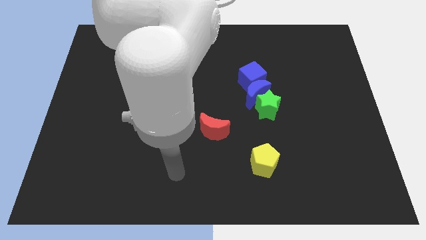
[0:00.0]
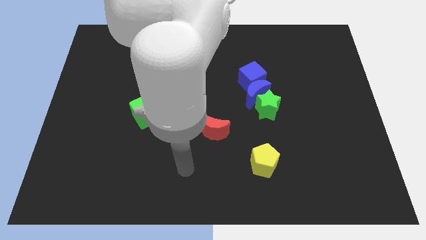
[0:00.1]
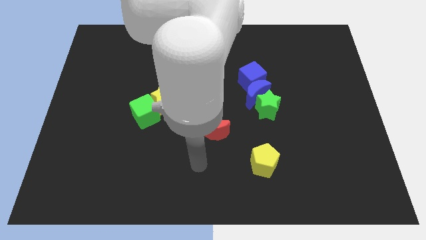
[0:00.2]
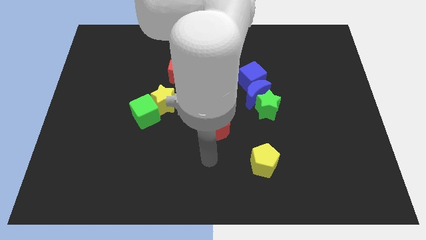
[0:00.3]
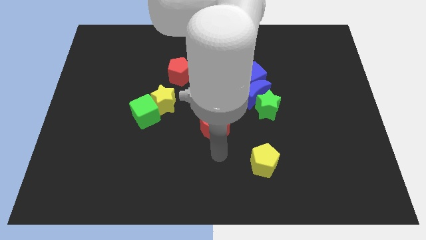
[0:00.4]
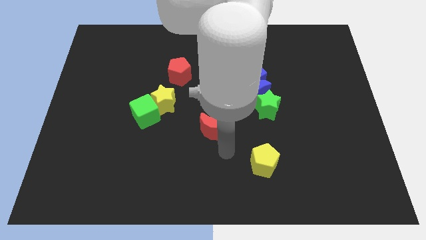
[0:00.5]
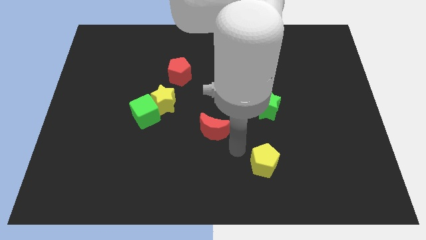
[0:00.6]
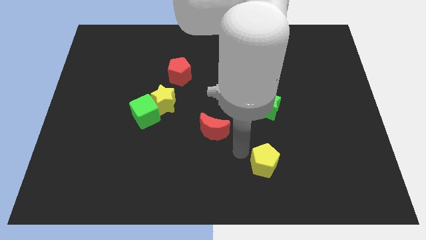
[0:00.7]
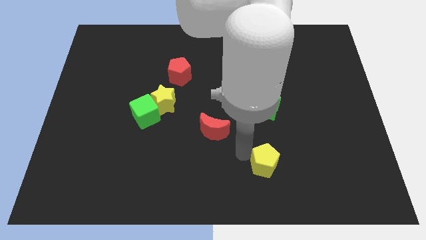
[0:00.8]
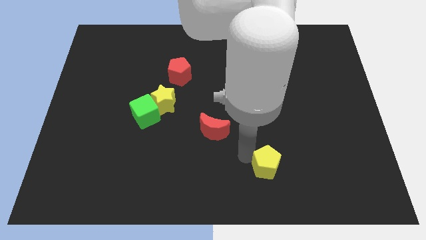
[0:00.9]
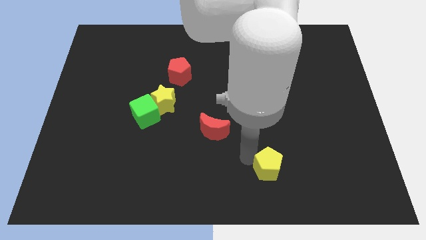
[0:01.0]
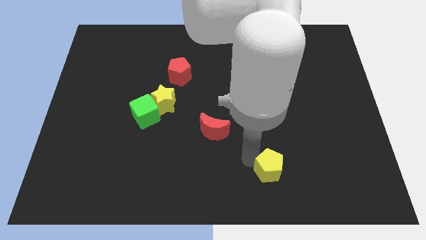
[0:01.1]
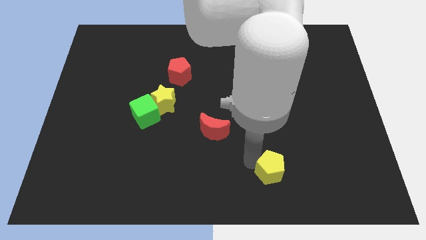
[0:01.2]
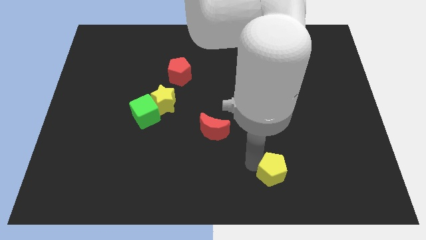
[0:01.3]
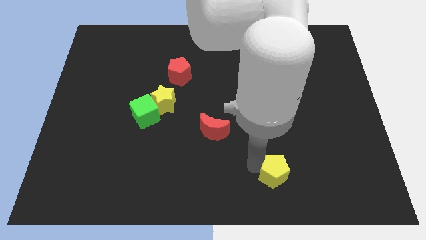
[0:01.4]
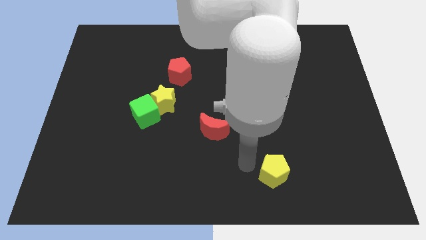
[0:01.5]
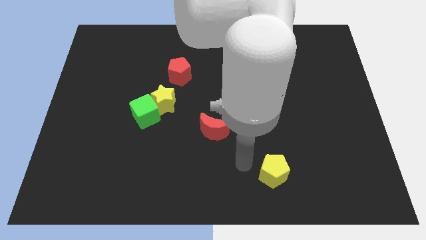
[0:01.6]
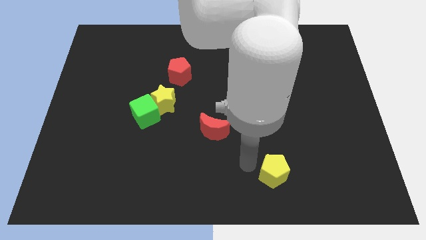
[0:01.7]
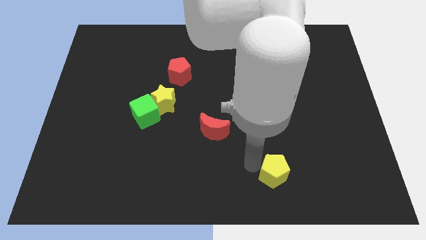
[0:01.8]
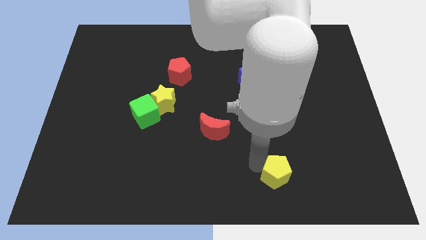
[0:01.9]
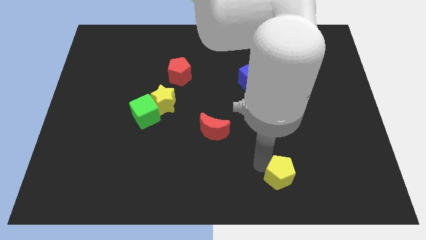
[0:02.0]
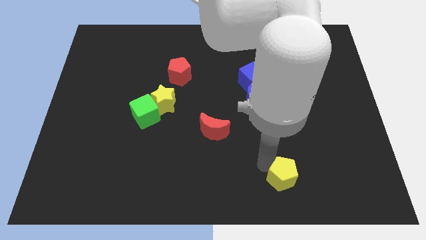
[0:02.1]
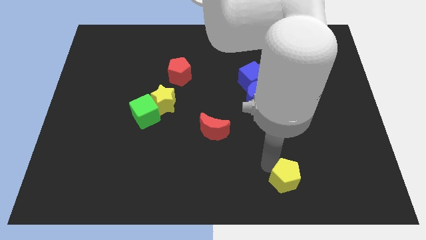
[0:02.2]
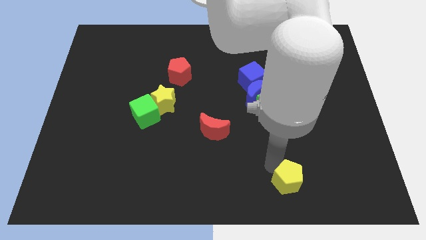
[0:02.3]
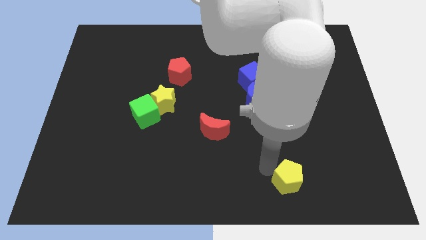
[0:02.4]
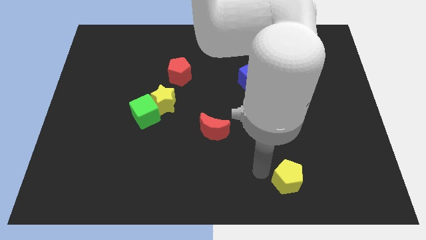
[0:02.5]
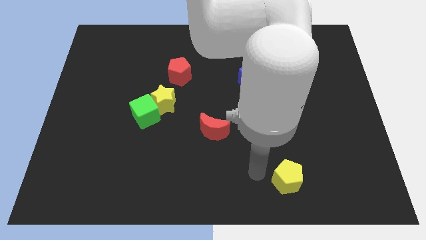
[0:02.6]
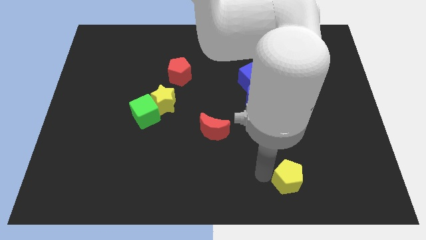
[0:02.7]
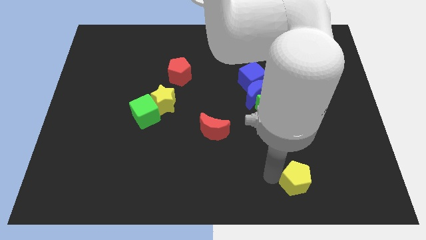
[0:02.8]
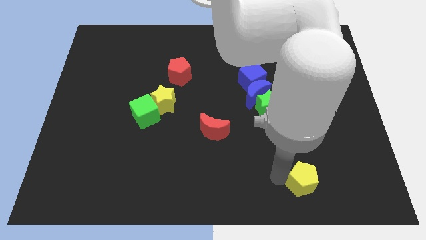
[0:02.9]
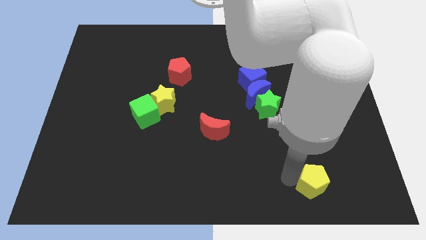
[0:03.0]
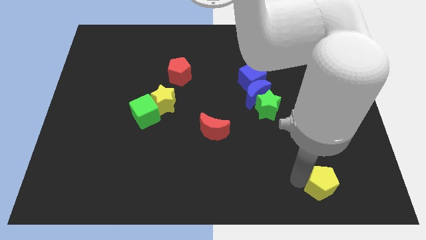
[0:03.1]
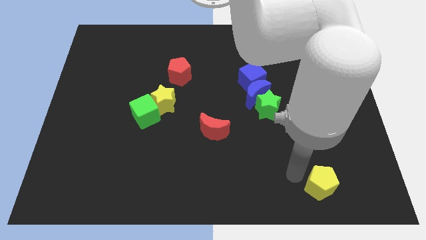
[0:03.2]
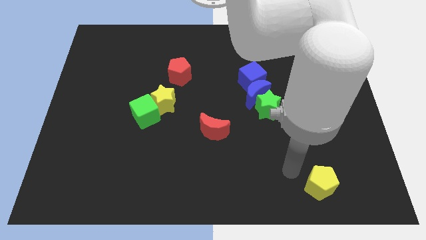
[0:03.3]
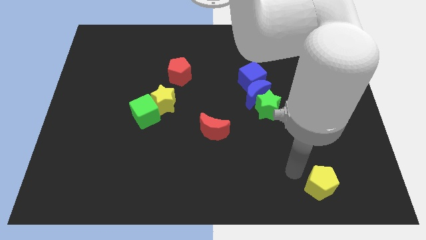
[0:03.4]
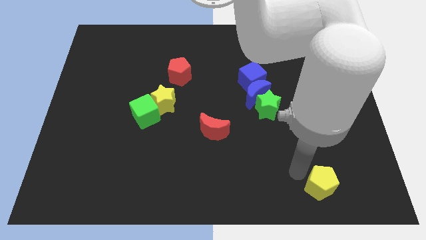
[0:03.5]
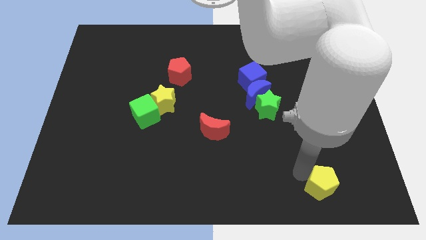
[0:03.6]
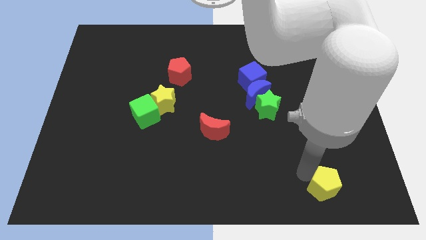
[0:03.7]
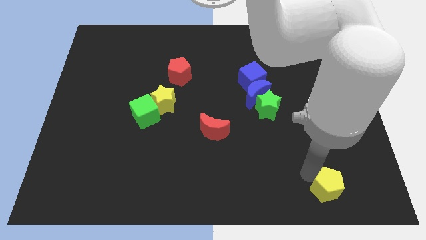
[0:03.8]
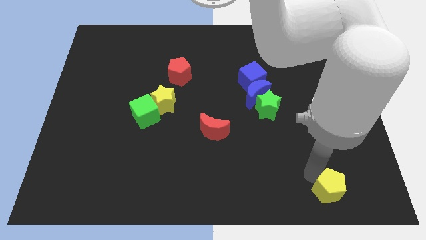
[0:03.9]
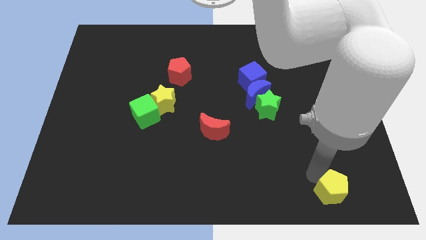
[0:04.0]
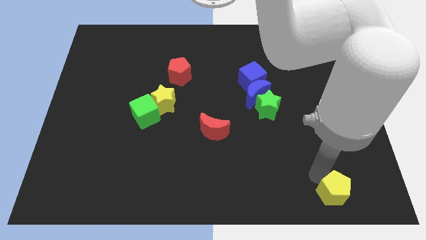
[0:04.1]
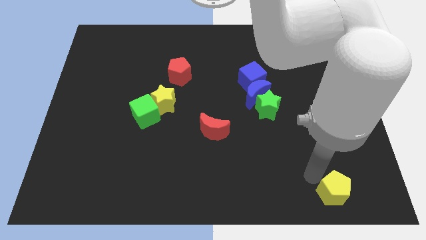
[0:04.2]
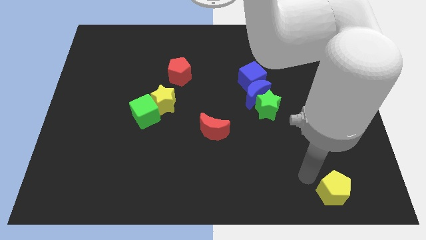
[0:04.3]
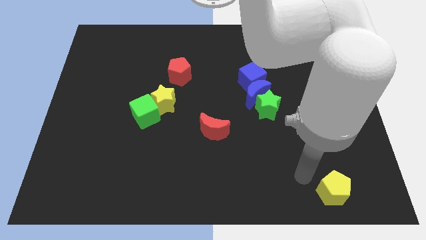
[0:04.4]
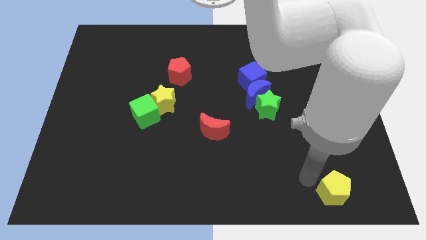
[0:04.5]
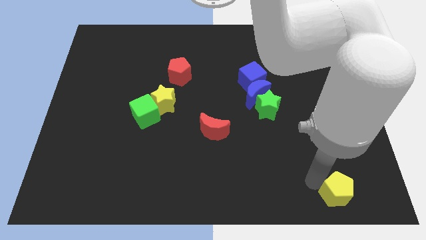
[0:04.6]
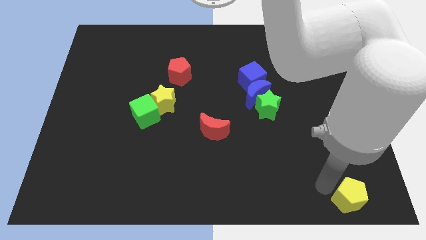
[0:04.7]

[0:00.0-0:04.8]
put the yellow pentagon to the bottom right corner

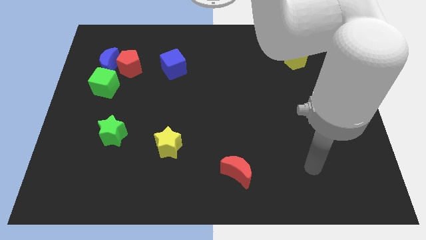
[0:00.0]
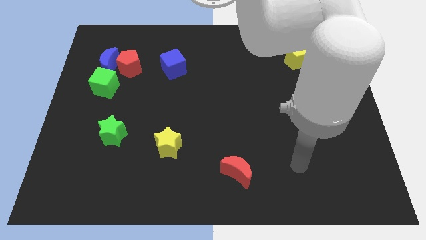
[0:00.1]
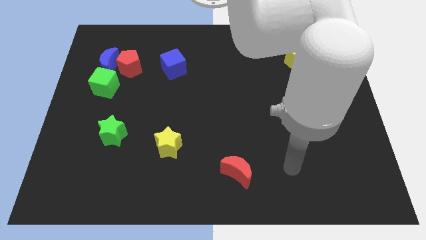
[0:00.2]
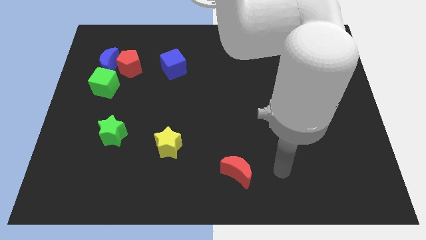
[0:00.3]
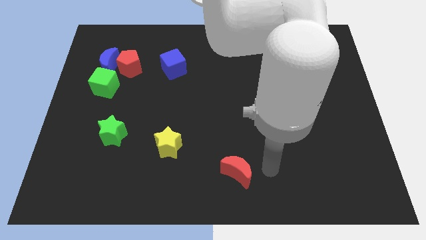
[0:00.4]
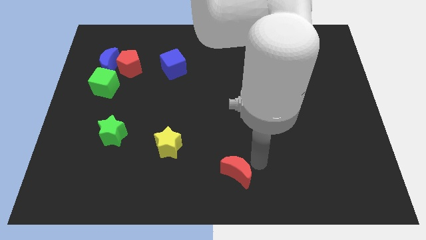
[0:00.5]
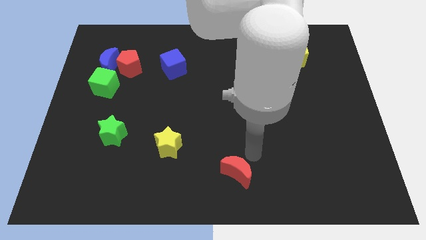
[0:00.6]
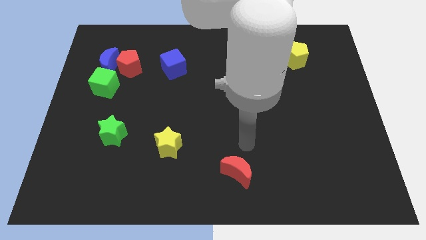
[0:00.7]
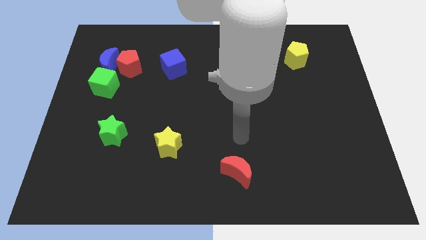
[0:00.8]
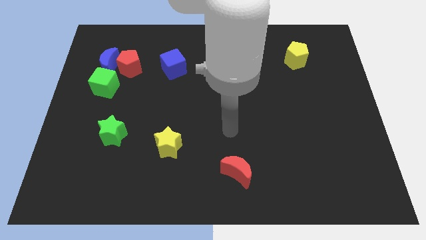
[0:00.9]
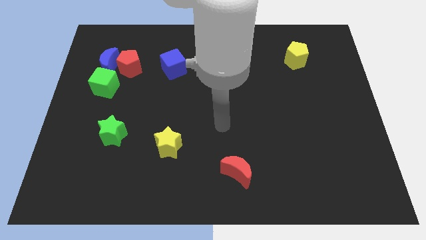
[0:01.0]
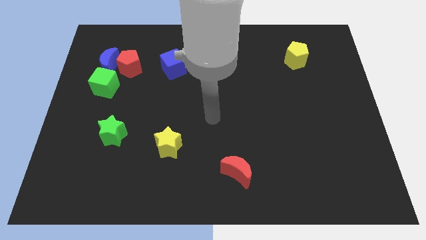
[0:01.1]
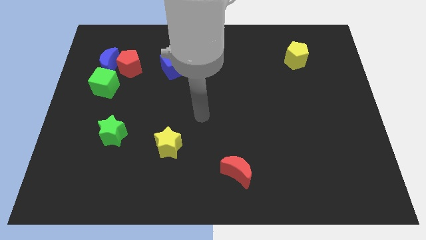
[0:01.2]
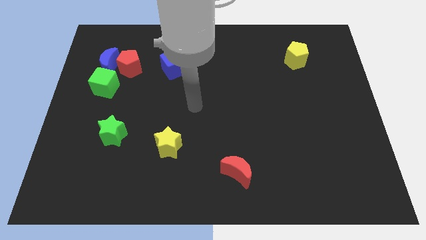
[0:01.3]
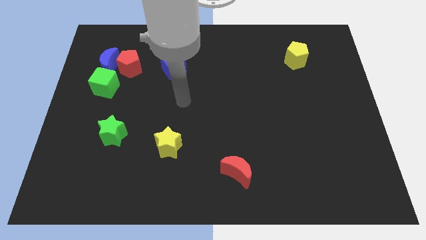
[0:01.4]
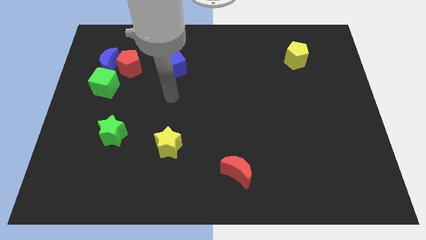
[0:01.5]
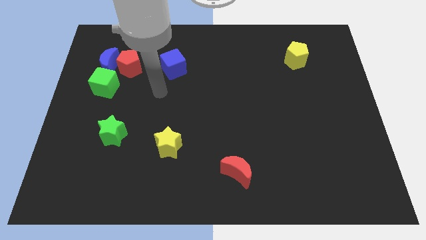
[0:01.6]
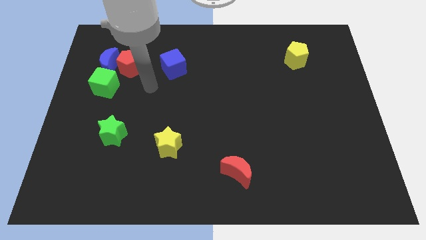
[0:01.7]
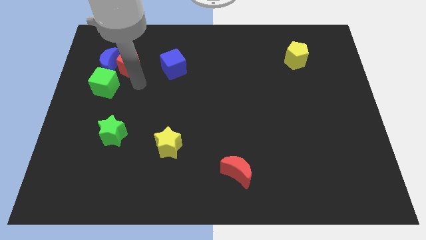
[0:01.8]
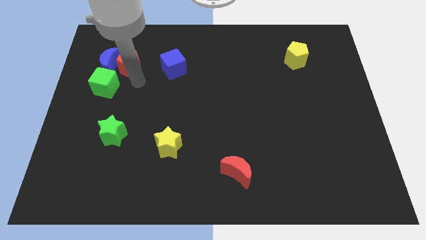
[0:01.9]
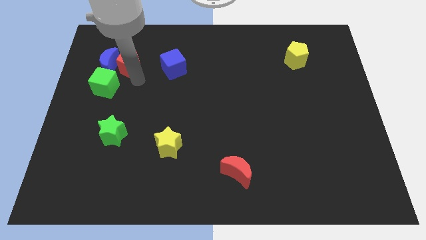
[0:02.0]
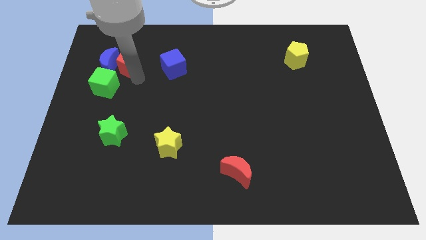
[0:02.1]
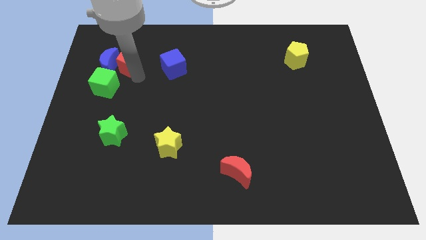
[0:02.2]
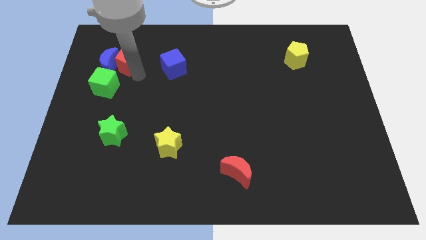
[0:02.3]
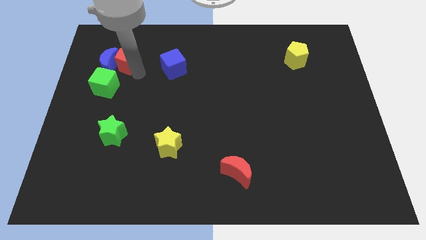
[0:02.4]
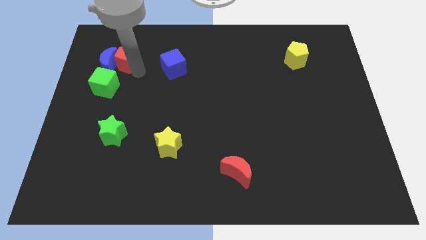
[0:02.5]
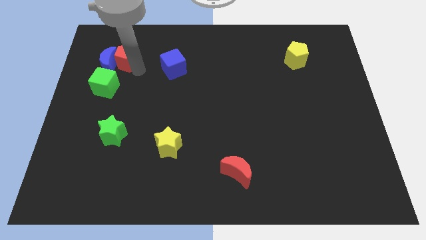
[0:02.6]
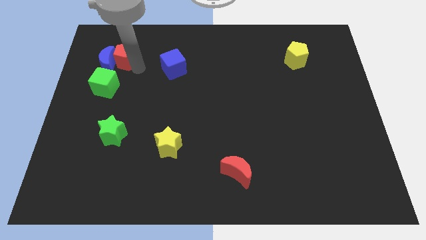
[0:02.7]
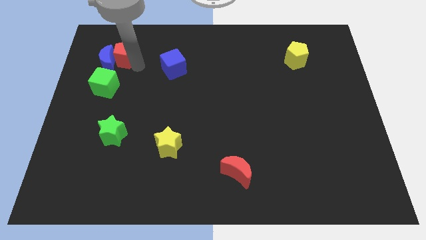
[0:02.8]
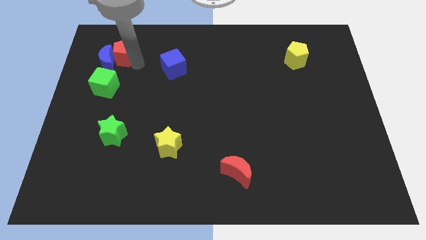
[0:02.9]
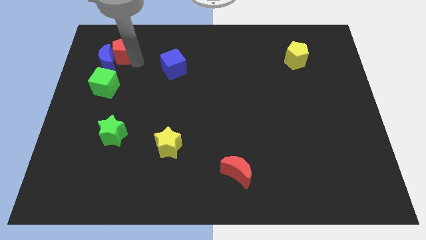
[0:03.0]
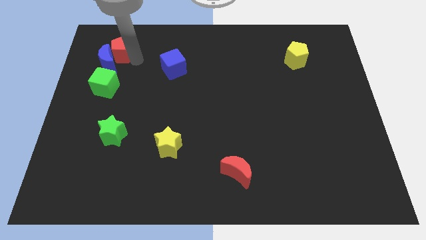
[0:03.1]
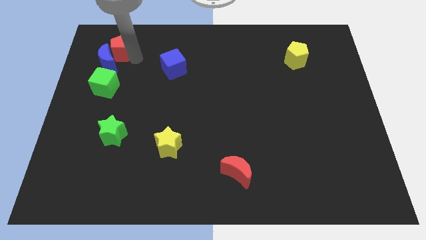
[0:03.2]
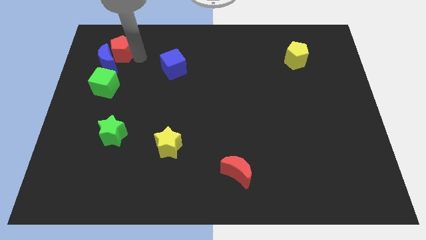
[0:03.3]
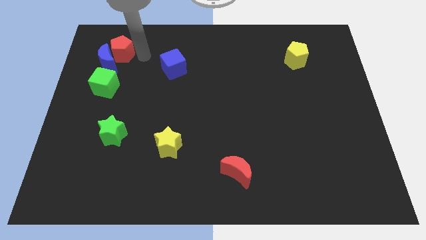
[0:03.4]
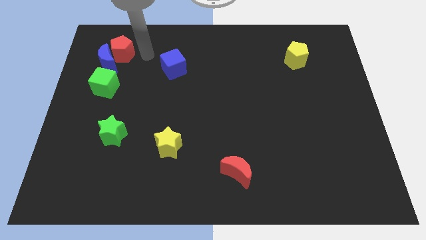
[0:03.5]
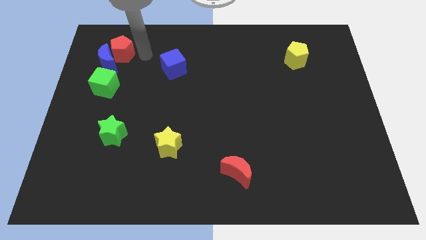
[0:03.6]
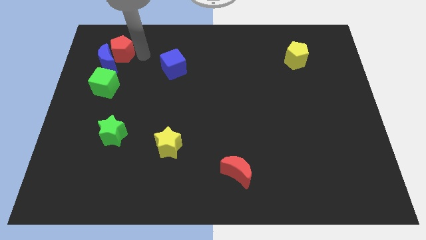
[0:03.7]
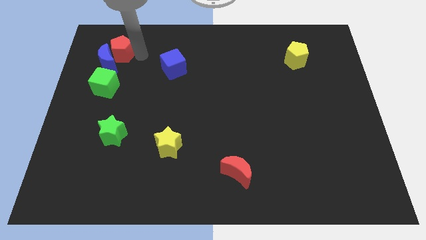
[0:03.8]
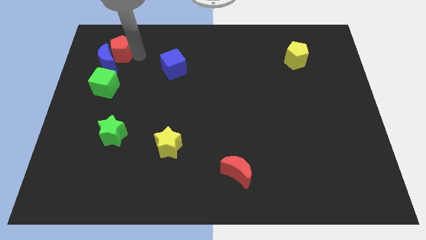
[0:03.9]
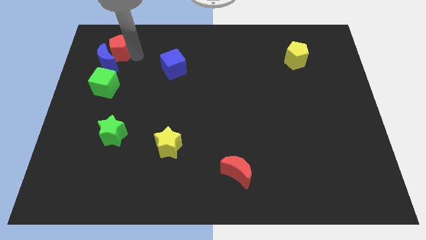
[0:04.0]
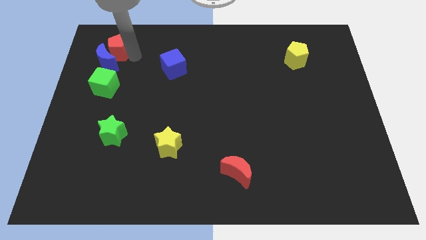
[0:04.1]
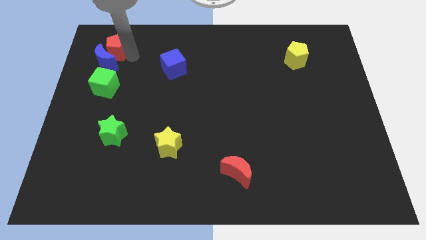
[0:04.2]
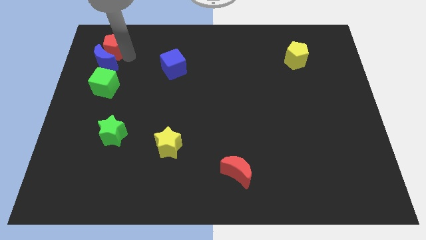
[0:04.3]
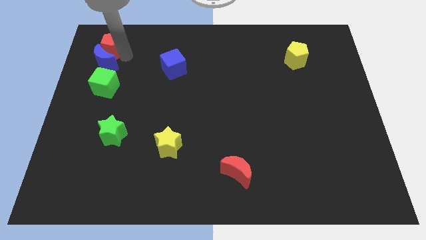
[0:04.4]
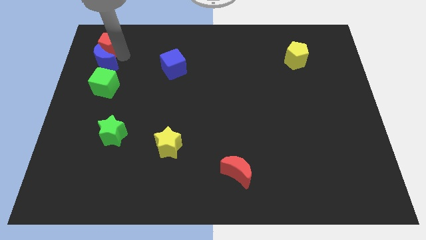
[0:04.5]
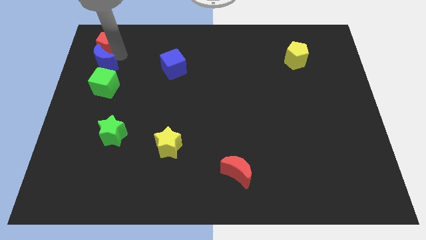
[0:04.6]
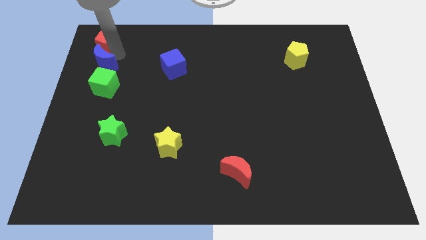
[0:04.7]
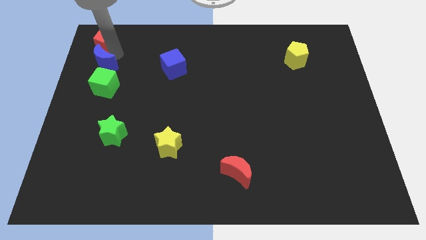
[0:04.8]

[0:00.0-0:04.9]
push the red pentagon to the top left corner
